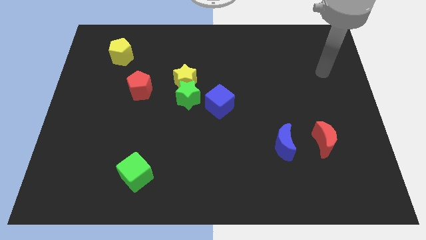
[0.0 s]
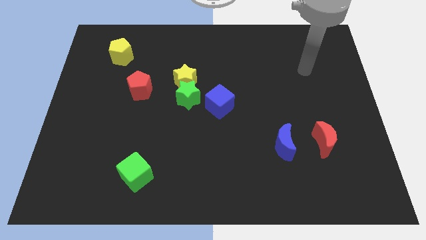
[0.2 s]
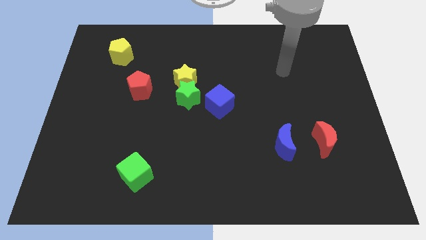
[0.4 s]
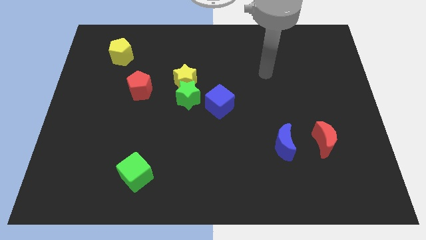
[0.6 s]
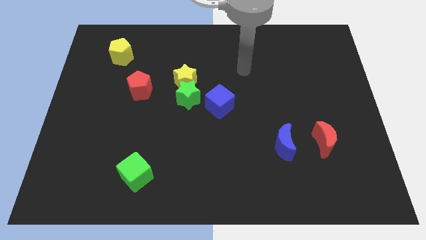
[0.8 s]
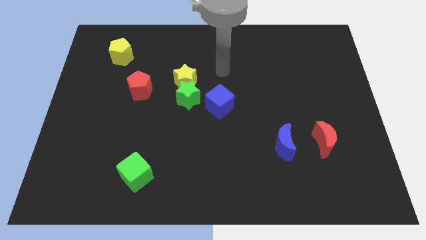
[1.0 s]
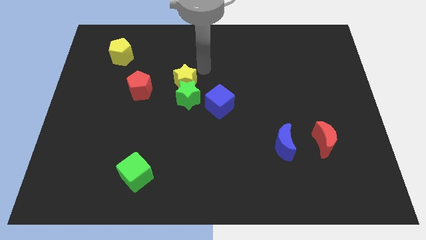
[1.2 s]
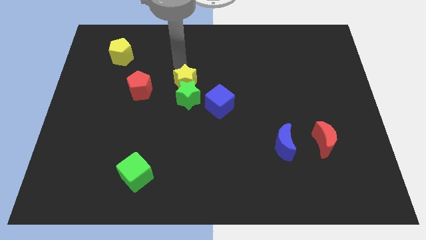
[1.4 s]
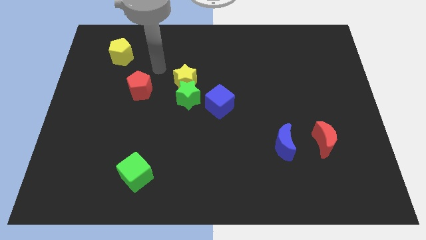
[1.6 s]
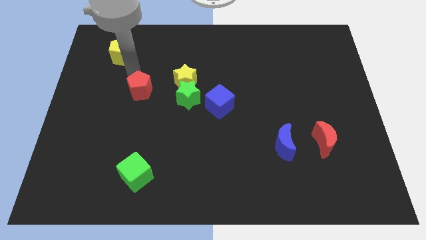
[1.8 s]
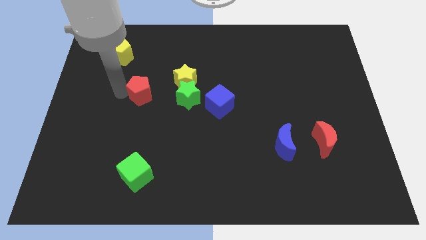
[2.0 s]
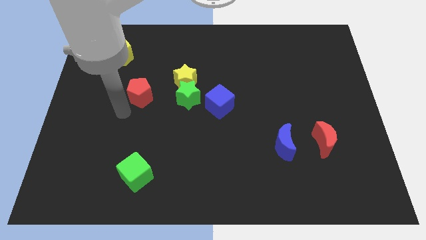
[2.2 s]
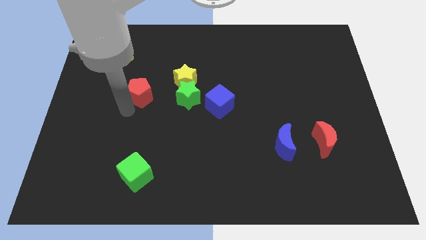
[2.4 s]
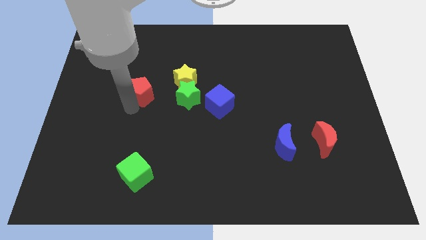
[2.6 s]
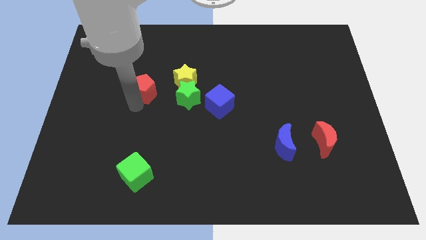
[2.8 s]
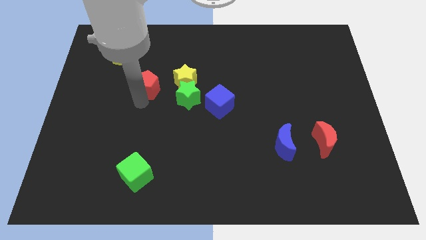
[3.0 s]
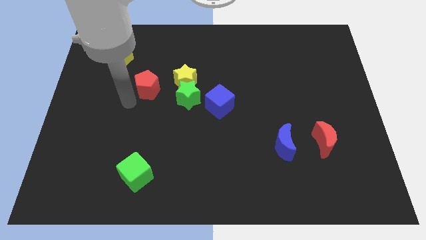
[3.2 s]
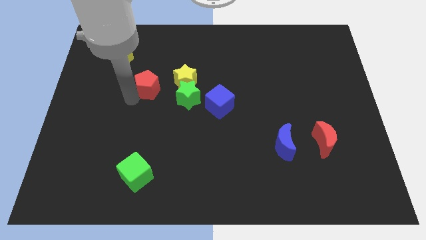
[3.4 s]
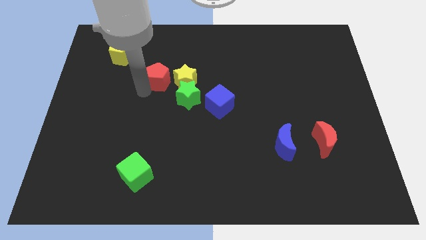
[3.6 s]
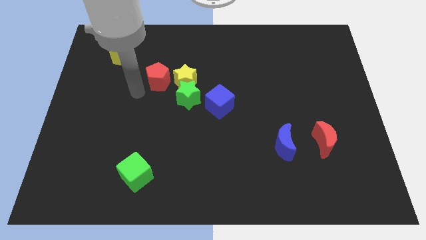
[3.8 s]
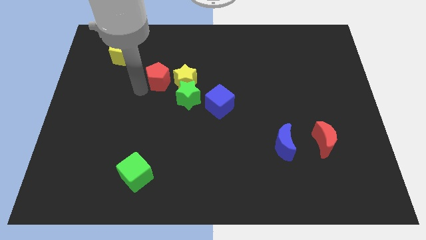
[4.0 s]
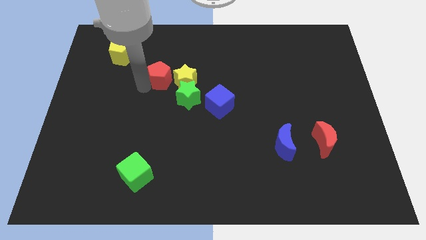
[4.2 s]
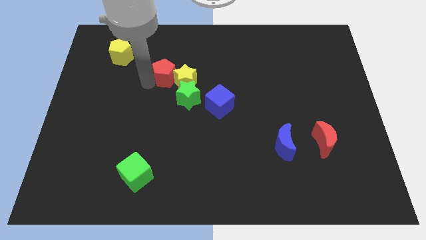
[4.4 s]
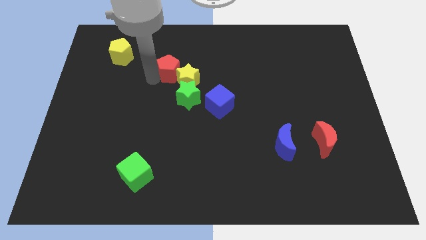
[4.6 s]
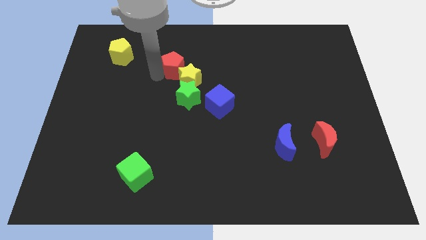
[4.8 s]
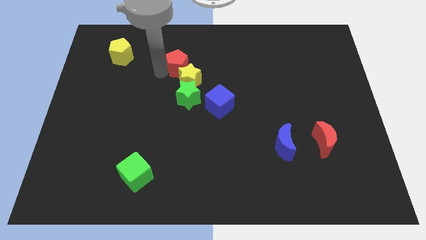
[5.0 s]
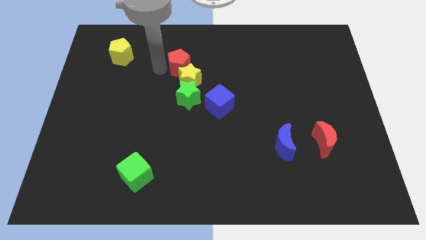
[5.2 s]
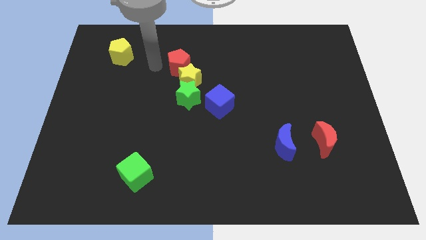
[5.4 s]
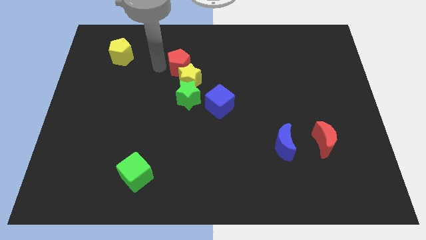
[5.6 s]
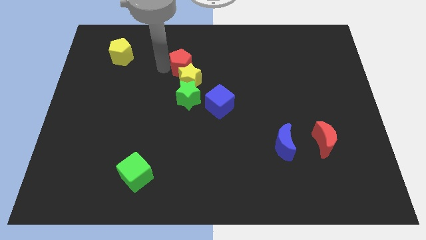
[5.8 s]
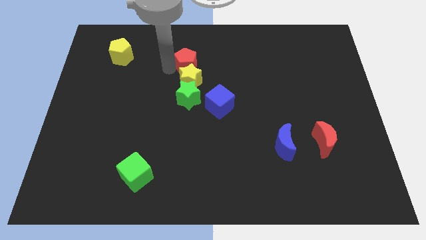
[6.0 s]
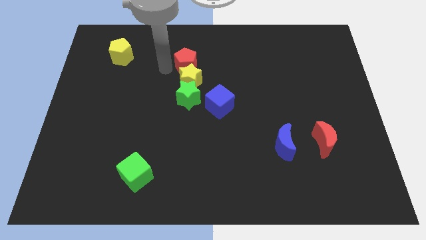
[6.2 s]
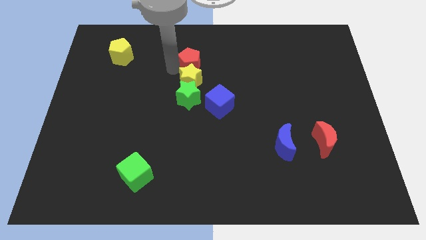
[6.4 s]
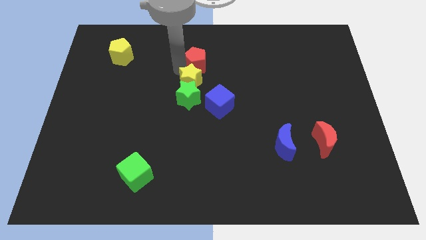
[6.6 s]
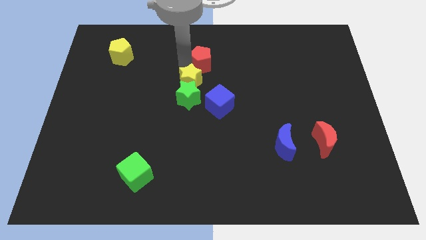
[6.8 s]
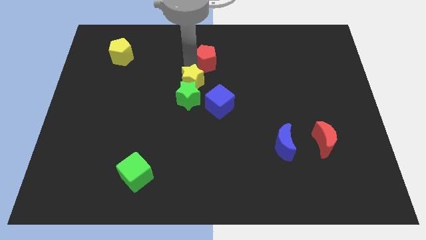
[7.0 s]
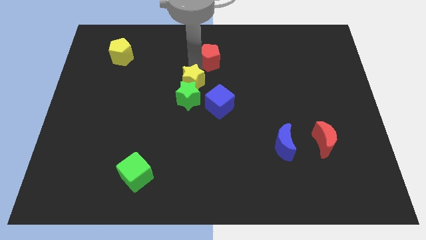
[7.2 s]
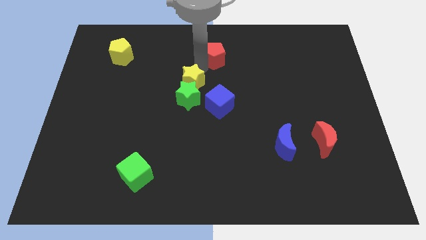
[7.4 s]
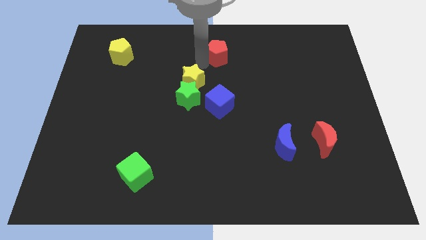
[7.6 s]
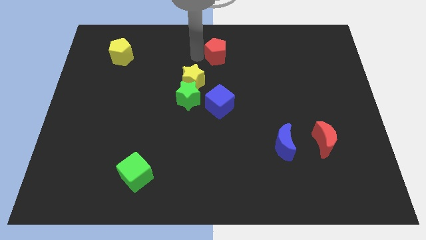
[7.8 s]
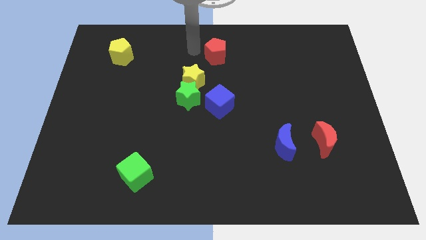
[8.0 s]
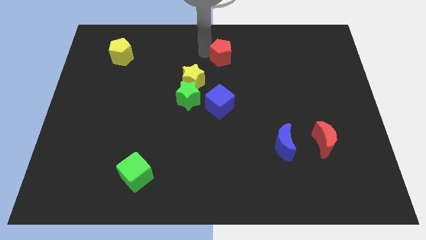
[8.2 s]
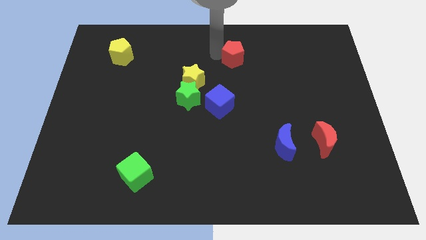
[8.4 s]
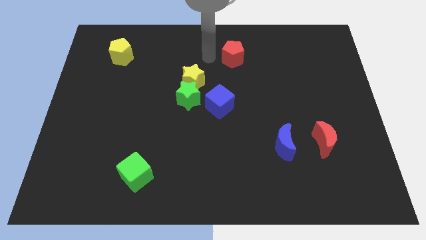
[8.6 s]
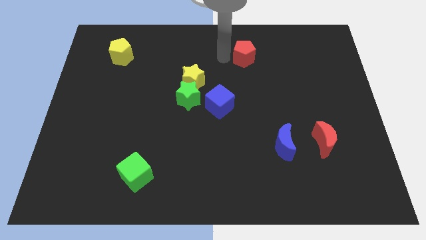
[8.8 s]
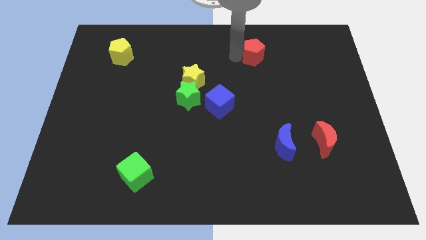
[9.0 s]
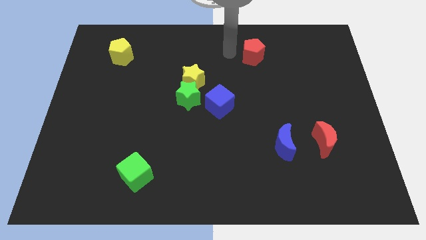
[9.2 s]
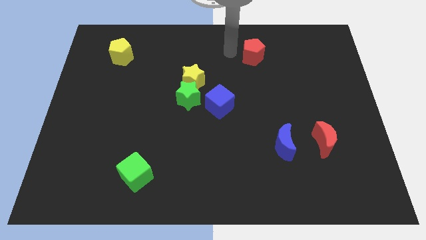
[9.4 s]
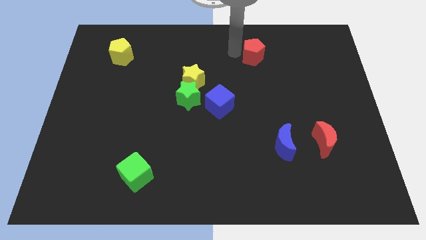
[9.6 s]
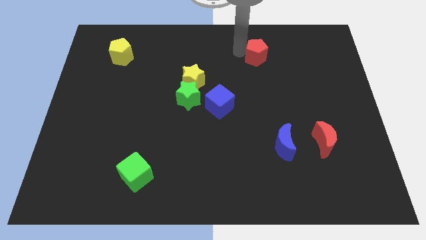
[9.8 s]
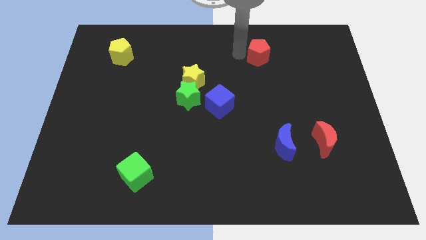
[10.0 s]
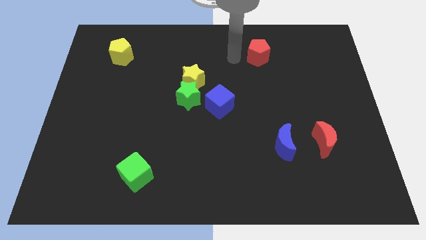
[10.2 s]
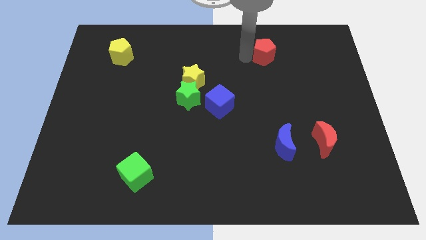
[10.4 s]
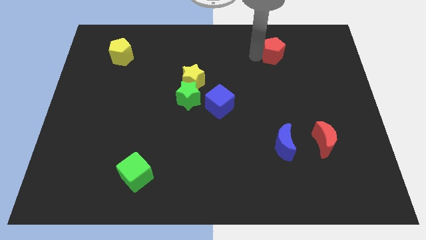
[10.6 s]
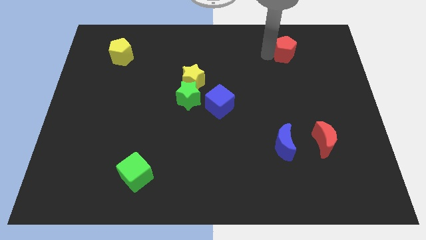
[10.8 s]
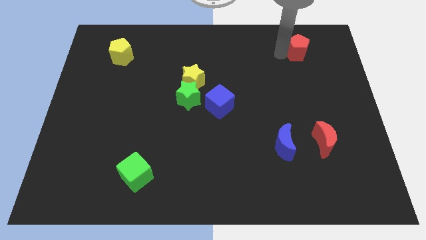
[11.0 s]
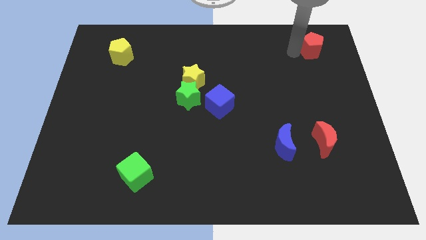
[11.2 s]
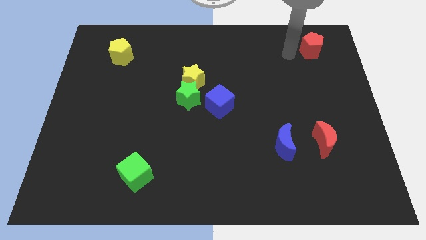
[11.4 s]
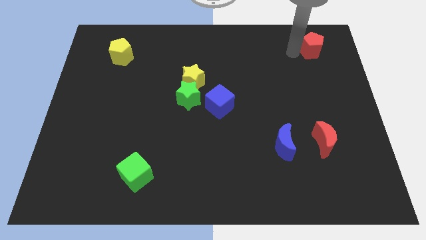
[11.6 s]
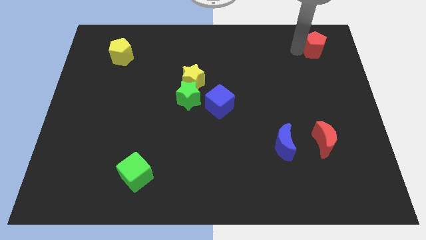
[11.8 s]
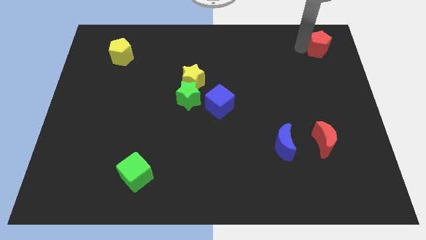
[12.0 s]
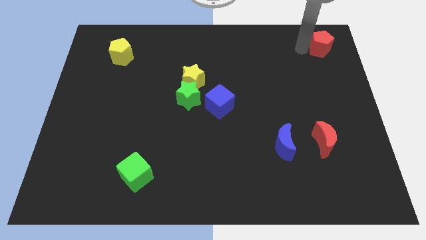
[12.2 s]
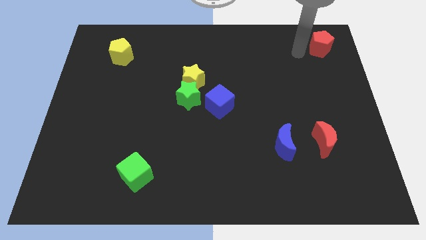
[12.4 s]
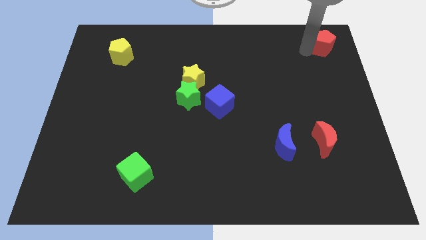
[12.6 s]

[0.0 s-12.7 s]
move the red pentagon to the top right of the board
